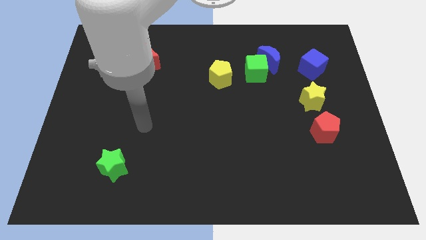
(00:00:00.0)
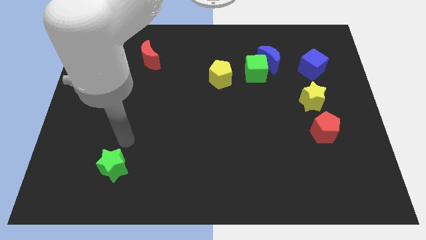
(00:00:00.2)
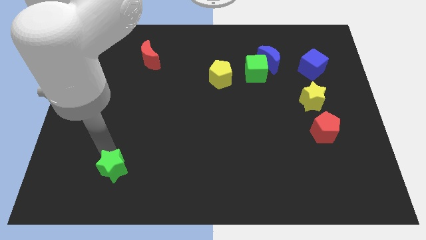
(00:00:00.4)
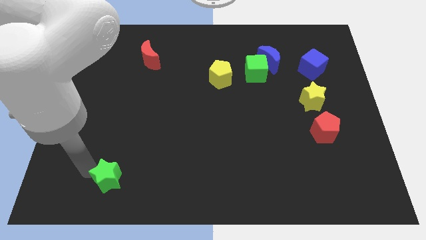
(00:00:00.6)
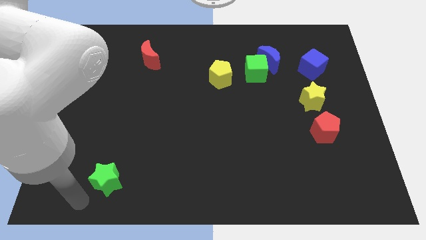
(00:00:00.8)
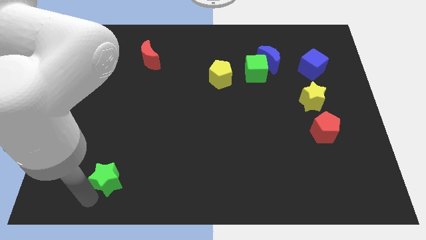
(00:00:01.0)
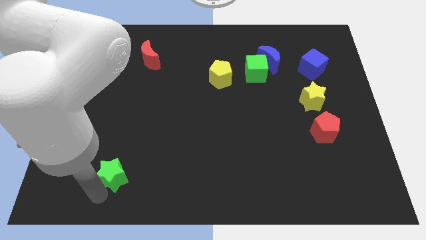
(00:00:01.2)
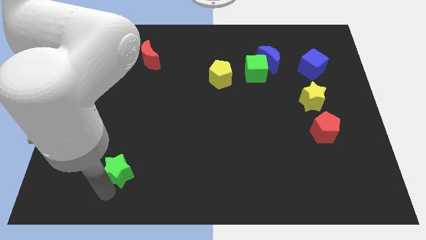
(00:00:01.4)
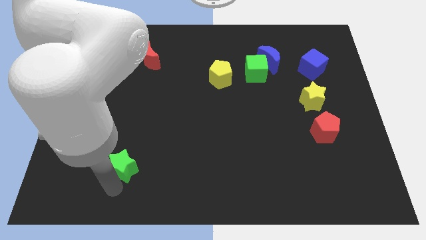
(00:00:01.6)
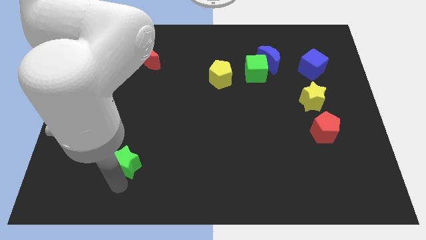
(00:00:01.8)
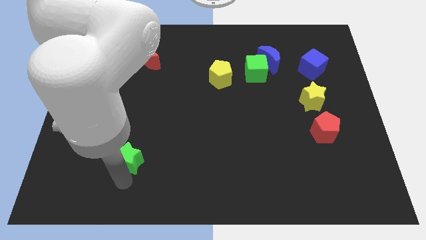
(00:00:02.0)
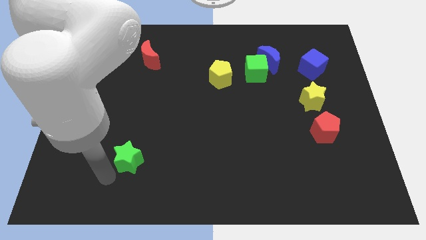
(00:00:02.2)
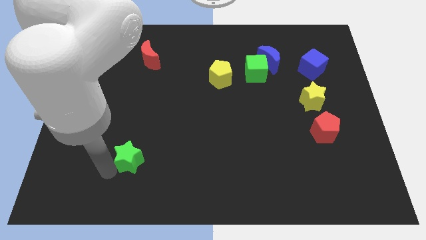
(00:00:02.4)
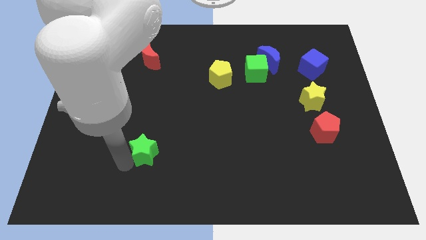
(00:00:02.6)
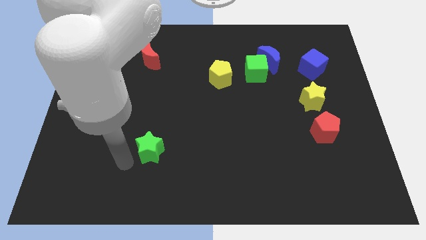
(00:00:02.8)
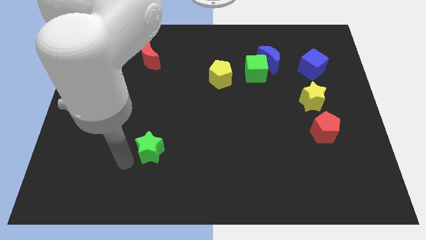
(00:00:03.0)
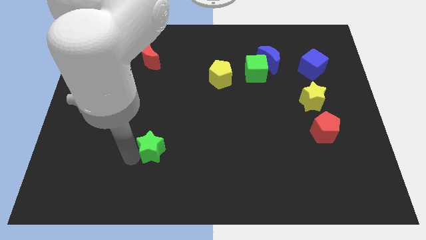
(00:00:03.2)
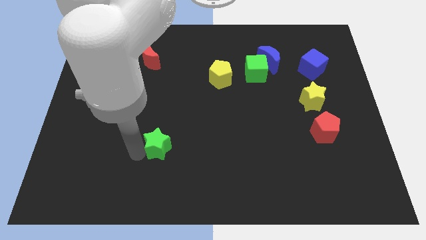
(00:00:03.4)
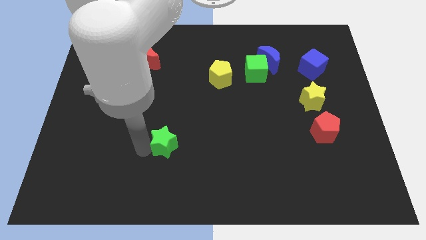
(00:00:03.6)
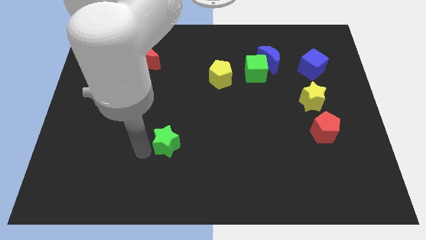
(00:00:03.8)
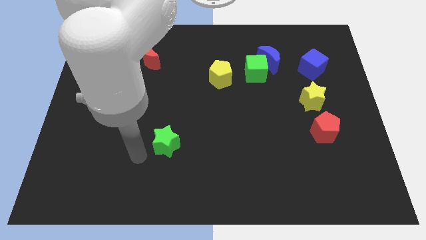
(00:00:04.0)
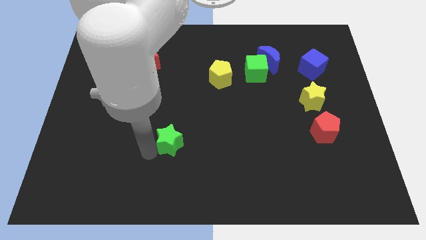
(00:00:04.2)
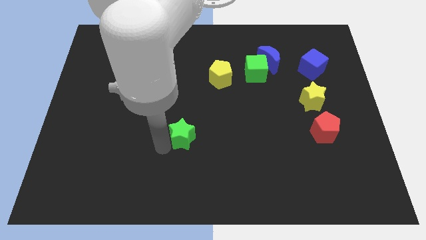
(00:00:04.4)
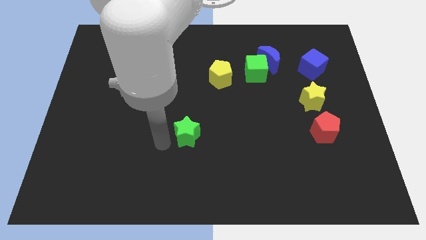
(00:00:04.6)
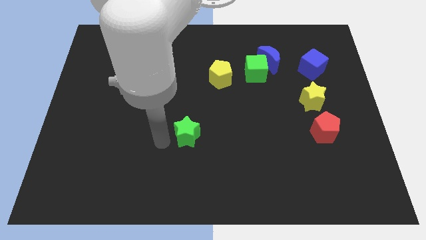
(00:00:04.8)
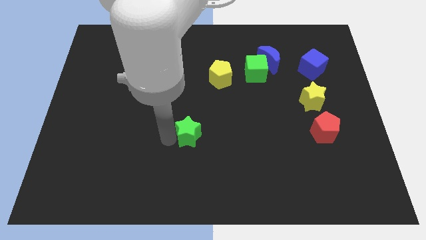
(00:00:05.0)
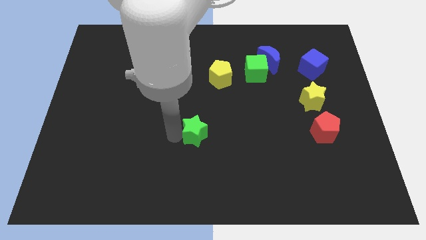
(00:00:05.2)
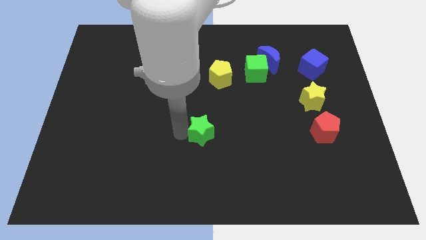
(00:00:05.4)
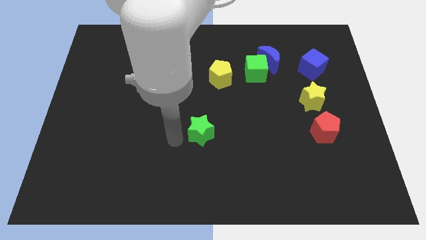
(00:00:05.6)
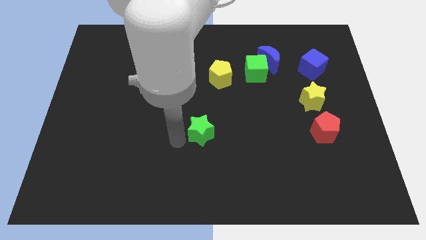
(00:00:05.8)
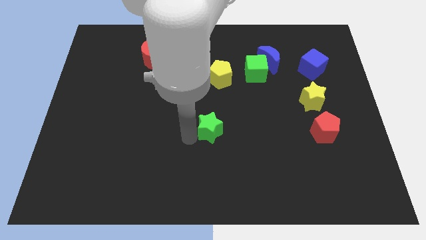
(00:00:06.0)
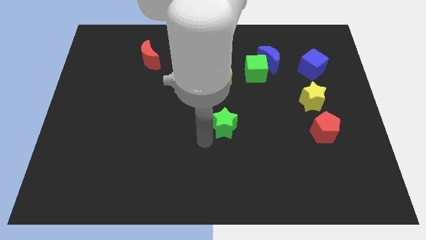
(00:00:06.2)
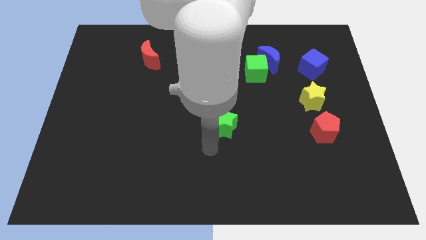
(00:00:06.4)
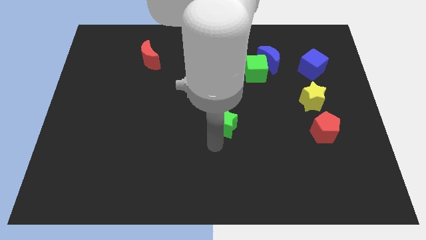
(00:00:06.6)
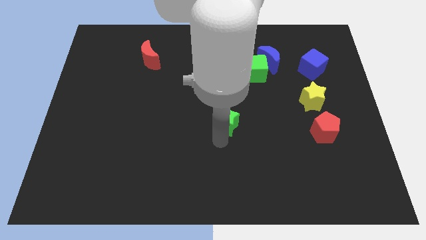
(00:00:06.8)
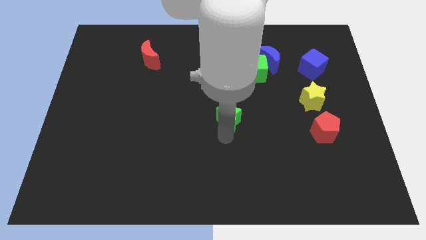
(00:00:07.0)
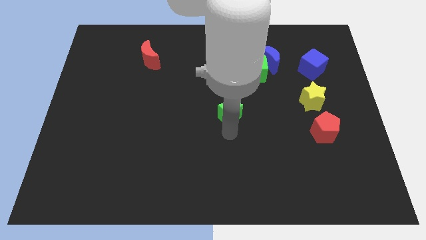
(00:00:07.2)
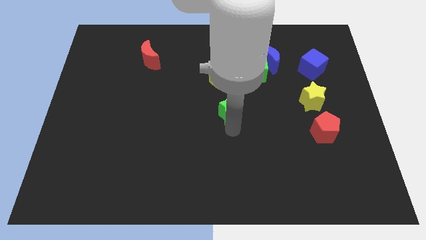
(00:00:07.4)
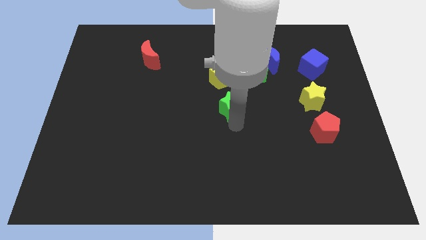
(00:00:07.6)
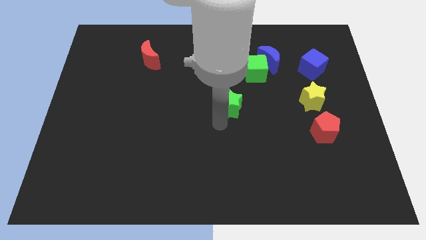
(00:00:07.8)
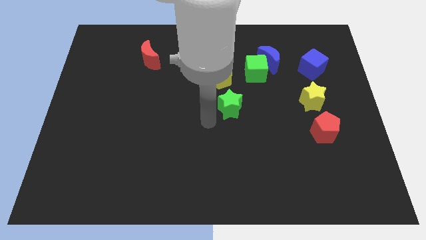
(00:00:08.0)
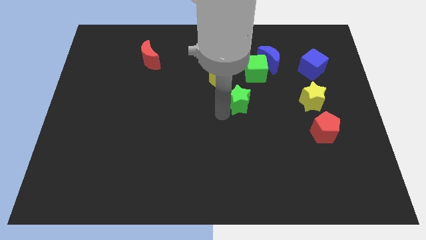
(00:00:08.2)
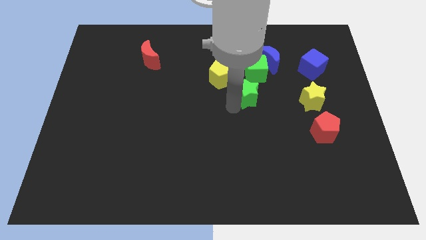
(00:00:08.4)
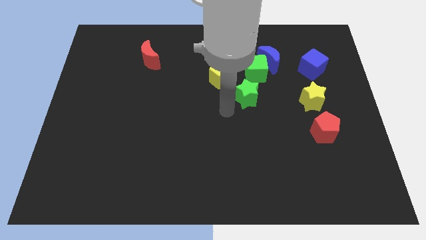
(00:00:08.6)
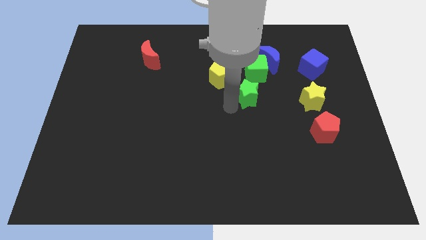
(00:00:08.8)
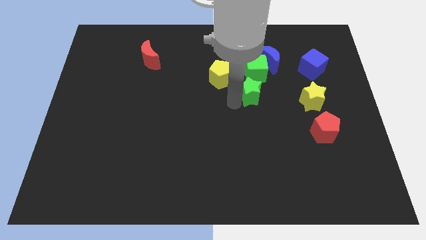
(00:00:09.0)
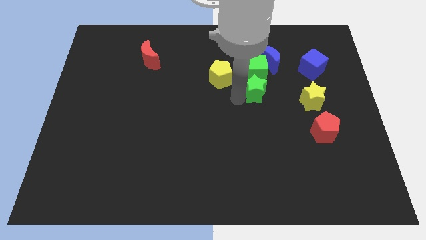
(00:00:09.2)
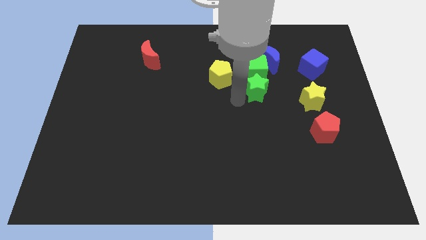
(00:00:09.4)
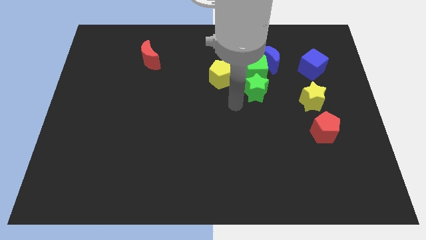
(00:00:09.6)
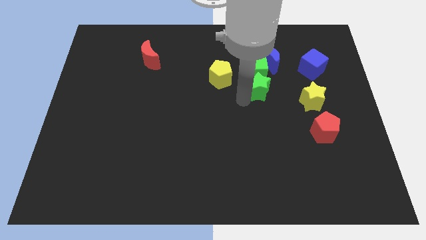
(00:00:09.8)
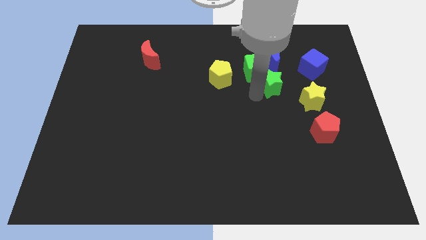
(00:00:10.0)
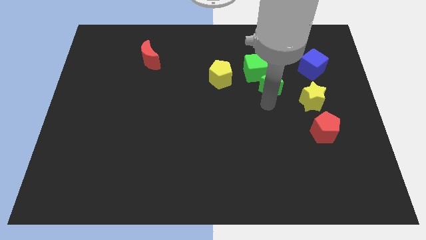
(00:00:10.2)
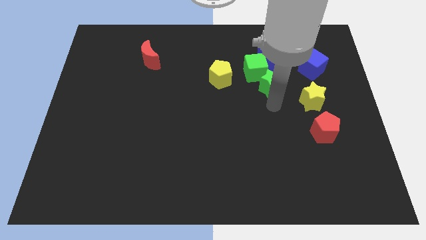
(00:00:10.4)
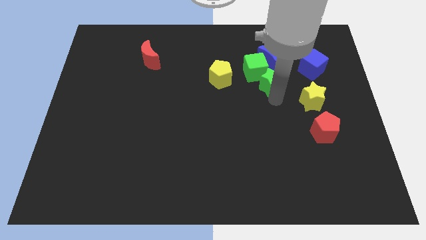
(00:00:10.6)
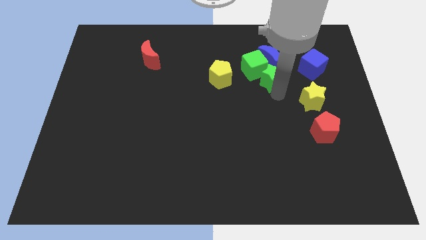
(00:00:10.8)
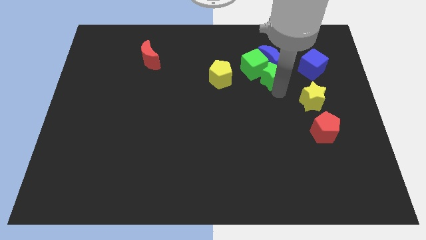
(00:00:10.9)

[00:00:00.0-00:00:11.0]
push the green star close to the blue moon

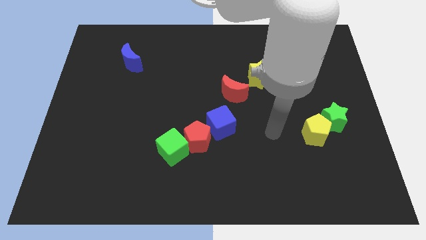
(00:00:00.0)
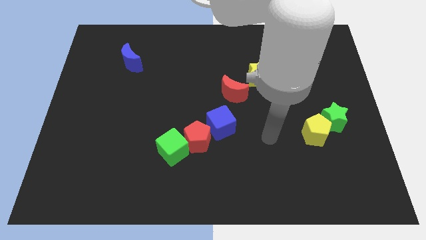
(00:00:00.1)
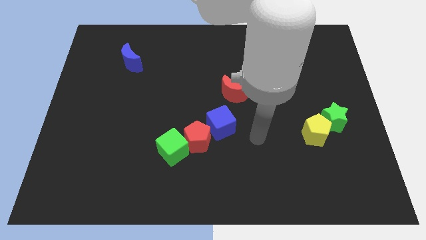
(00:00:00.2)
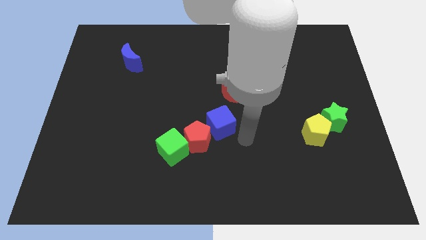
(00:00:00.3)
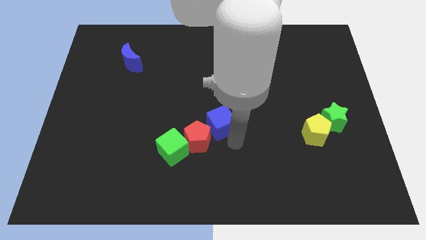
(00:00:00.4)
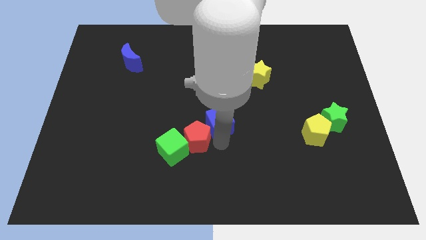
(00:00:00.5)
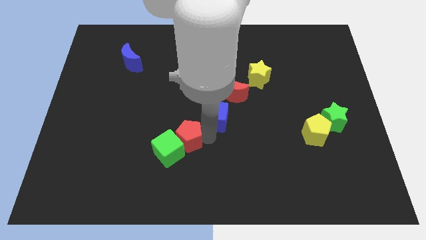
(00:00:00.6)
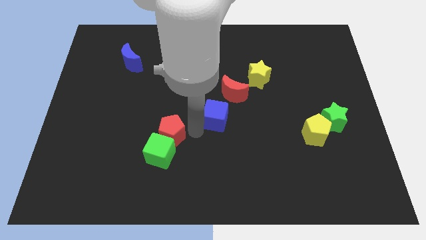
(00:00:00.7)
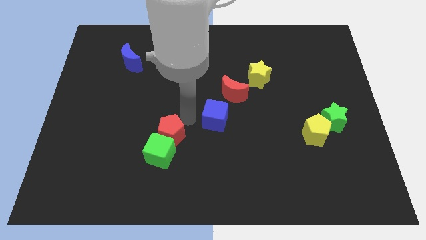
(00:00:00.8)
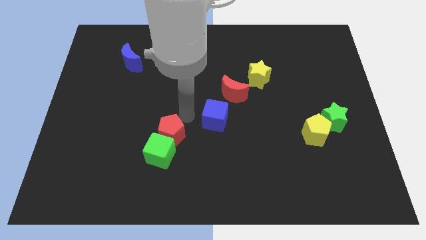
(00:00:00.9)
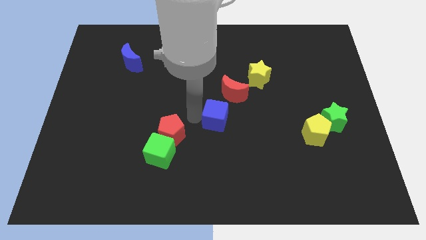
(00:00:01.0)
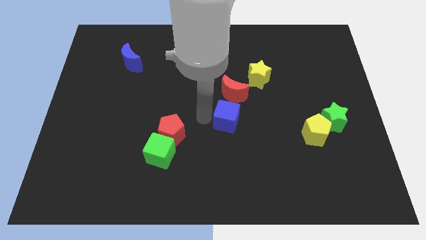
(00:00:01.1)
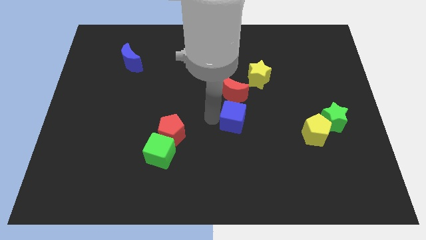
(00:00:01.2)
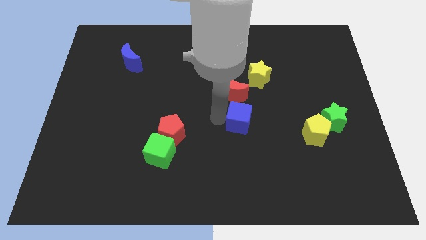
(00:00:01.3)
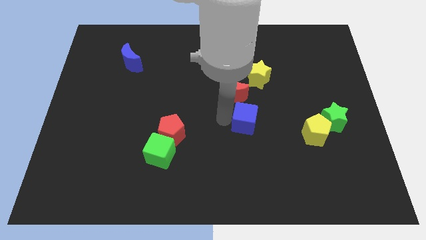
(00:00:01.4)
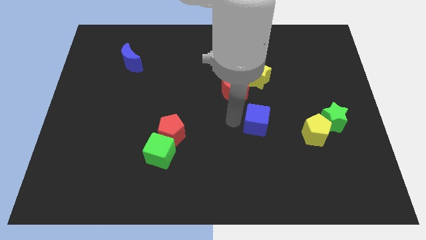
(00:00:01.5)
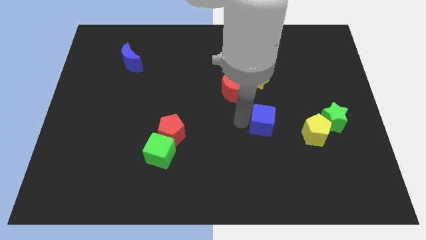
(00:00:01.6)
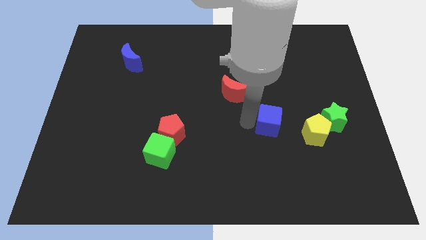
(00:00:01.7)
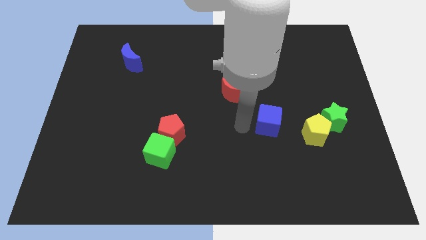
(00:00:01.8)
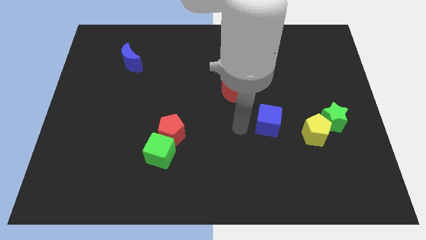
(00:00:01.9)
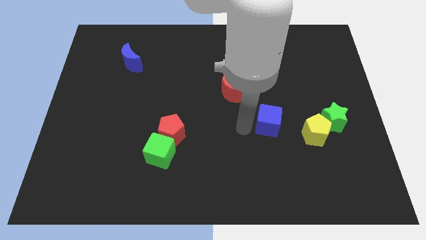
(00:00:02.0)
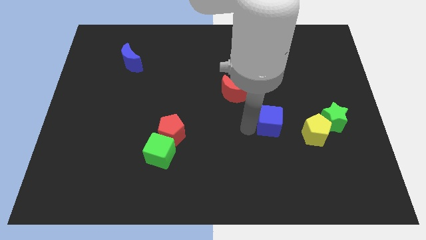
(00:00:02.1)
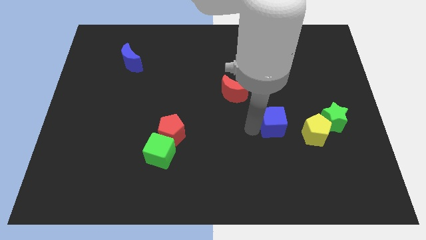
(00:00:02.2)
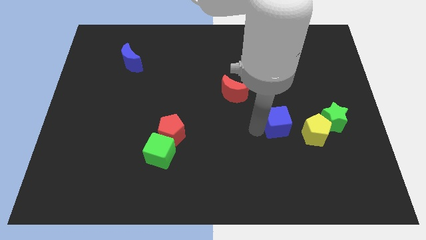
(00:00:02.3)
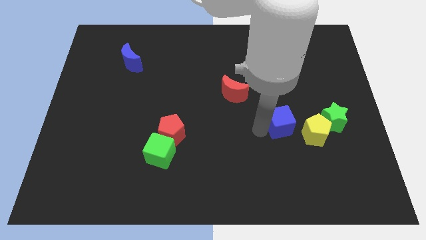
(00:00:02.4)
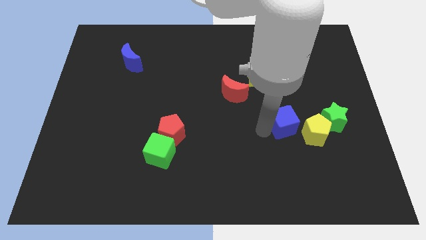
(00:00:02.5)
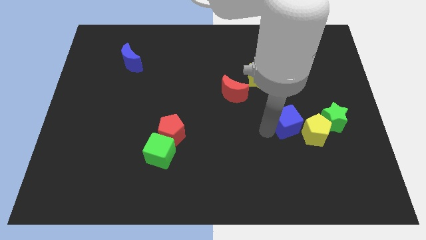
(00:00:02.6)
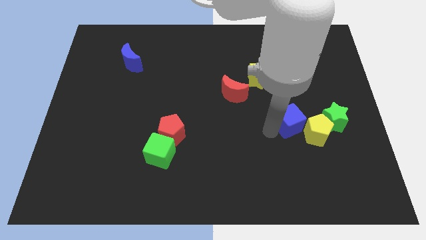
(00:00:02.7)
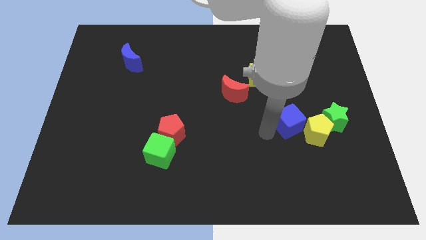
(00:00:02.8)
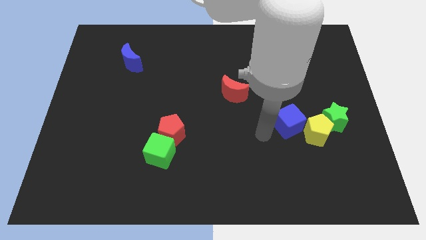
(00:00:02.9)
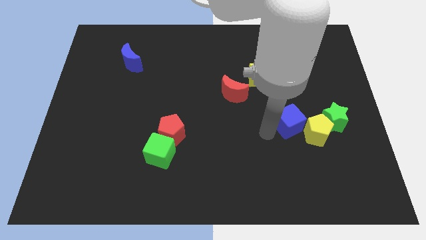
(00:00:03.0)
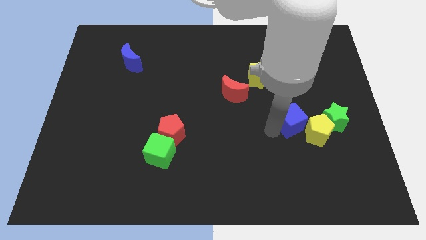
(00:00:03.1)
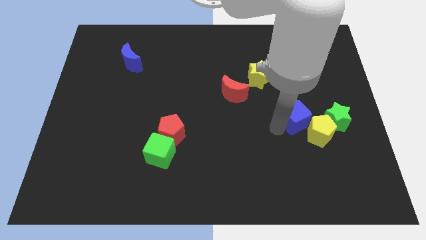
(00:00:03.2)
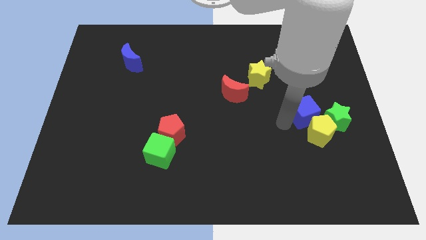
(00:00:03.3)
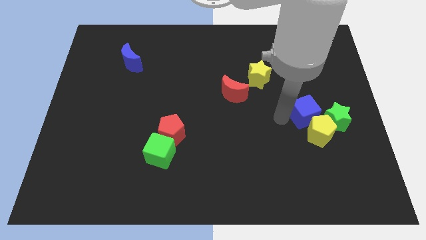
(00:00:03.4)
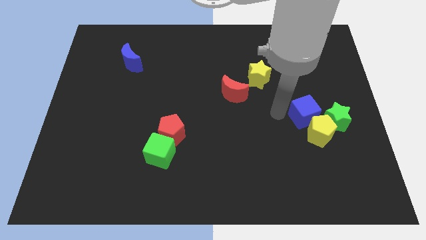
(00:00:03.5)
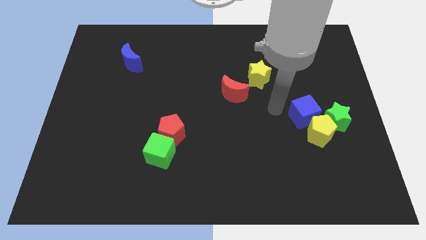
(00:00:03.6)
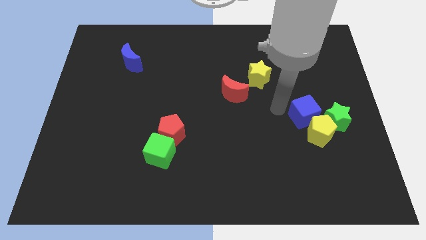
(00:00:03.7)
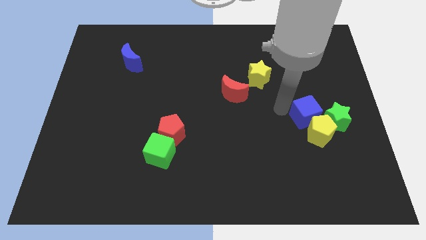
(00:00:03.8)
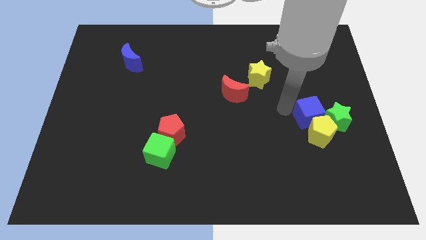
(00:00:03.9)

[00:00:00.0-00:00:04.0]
slide the blue cube towards the green star
